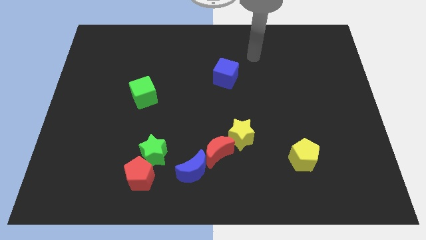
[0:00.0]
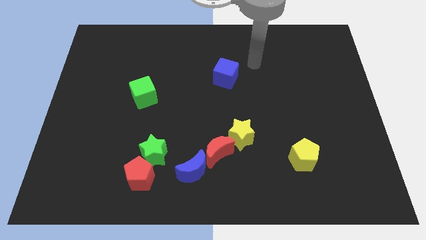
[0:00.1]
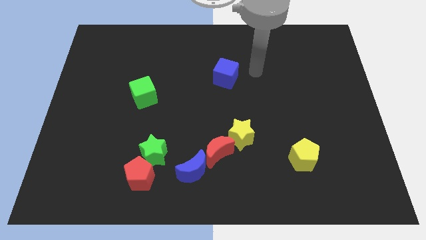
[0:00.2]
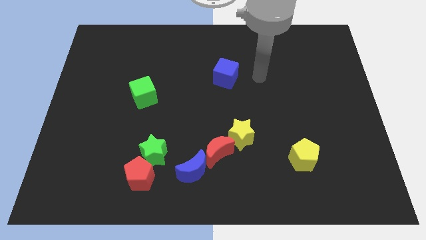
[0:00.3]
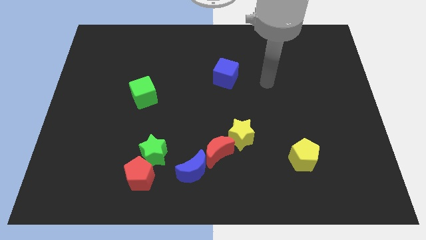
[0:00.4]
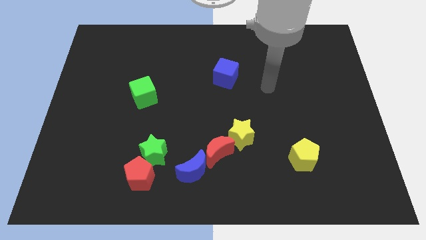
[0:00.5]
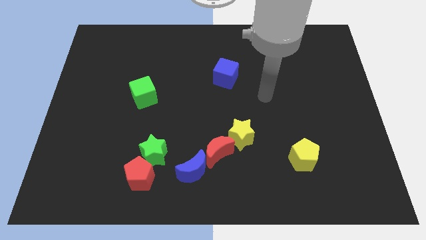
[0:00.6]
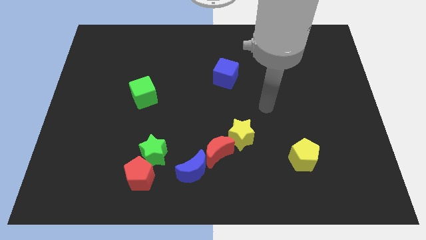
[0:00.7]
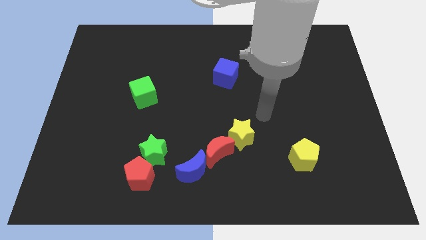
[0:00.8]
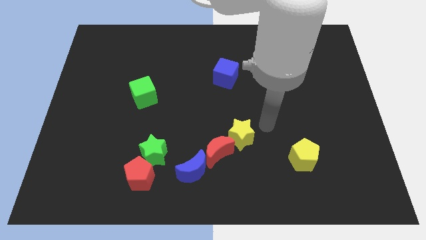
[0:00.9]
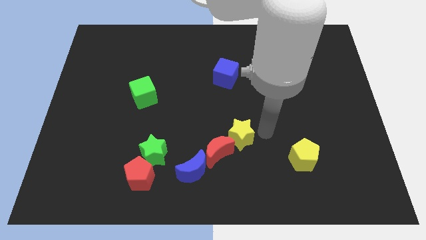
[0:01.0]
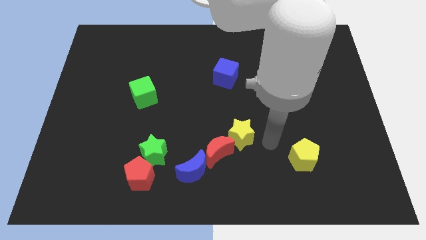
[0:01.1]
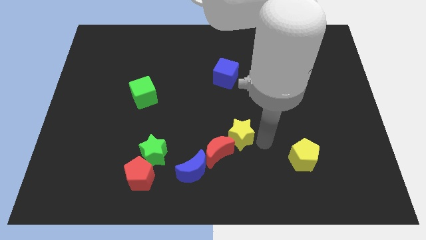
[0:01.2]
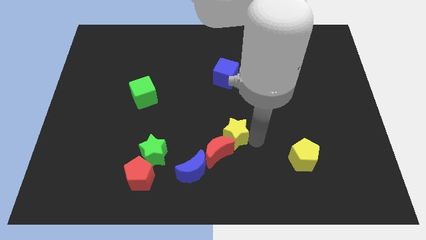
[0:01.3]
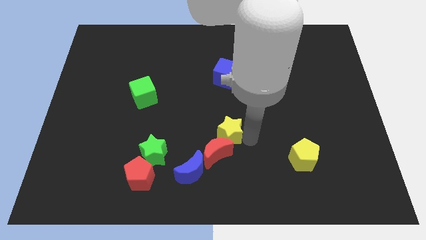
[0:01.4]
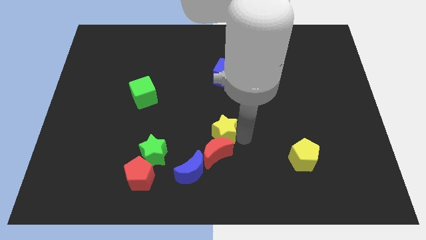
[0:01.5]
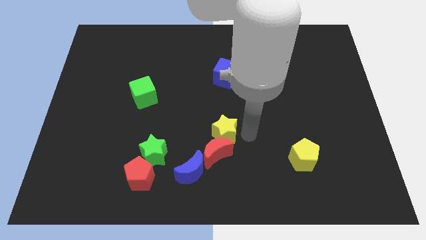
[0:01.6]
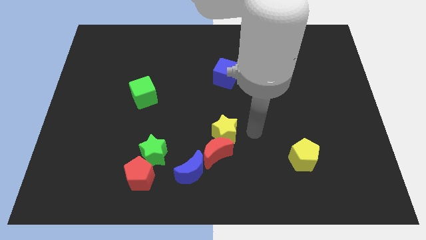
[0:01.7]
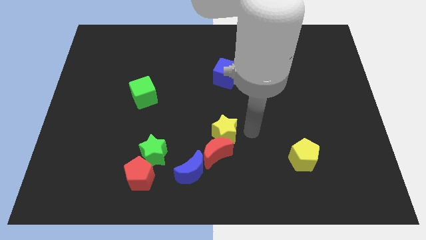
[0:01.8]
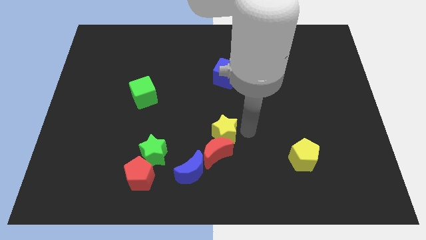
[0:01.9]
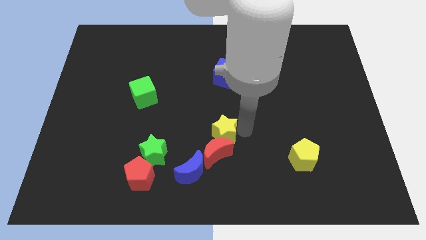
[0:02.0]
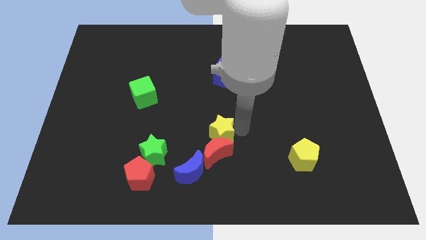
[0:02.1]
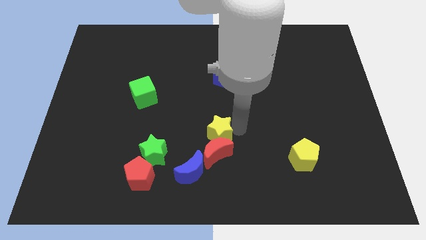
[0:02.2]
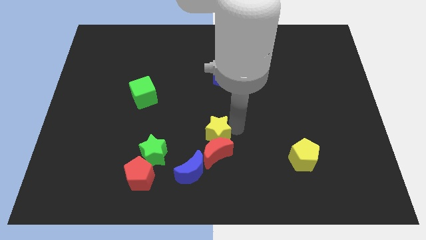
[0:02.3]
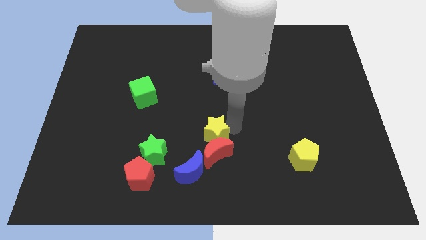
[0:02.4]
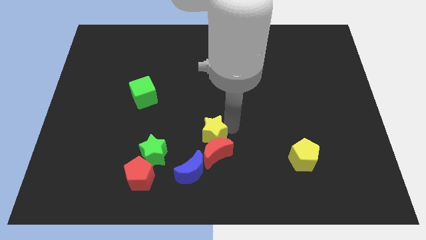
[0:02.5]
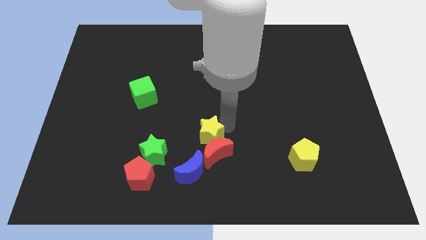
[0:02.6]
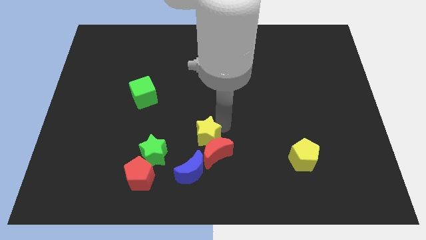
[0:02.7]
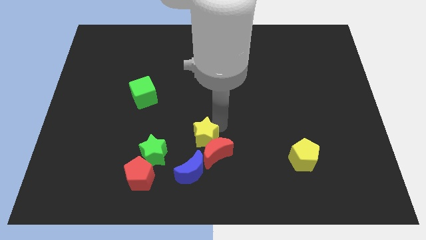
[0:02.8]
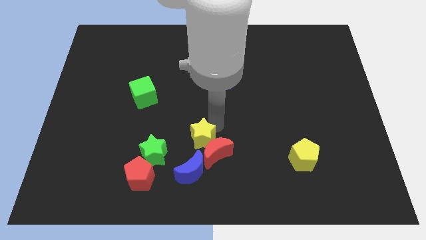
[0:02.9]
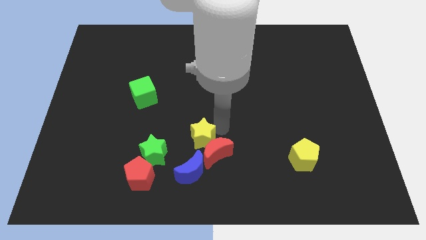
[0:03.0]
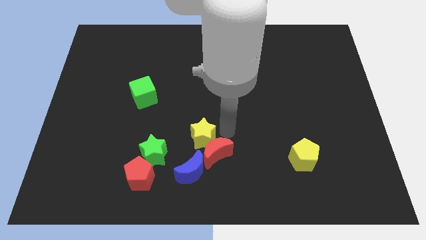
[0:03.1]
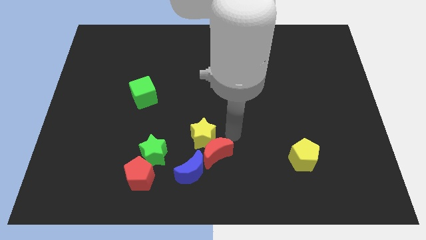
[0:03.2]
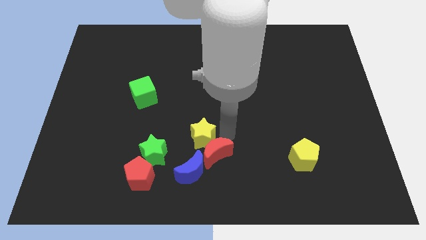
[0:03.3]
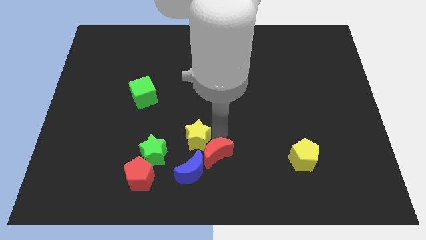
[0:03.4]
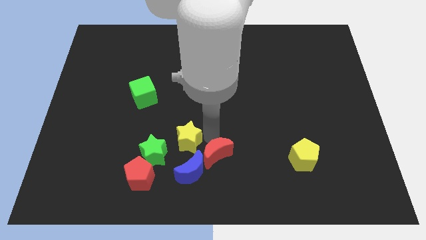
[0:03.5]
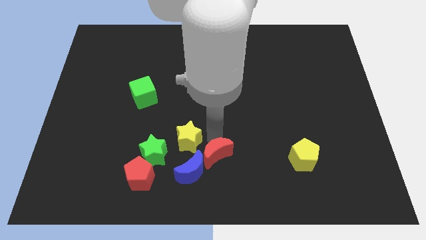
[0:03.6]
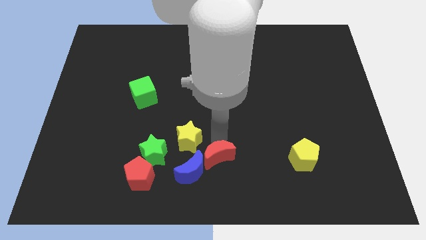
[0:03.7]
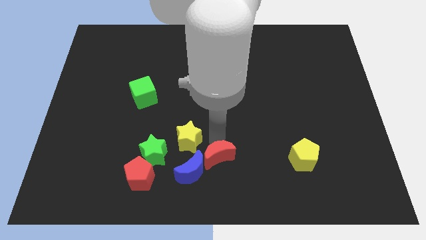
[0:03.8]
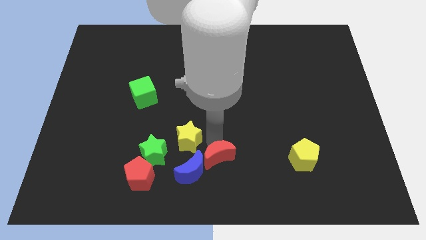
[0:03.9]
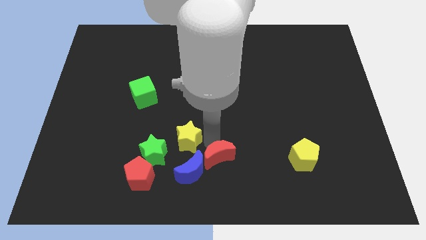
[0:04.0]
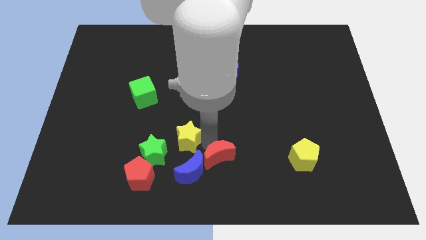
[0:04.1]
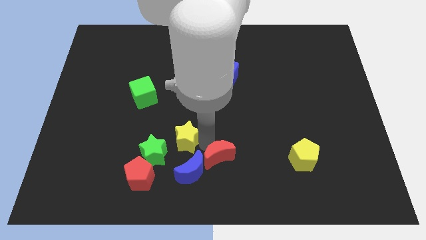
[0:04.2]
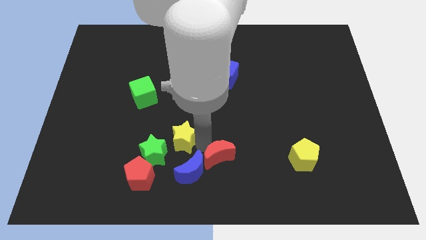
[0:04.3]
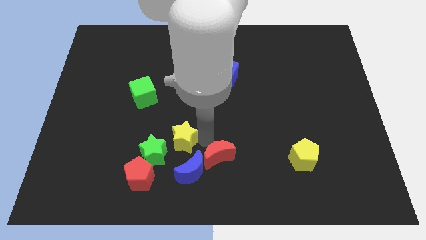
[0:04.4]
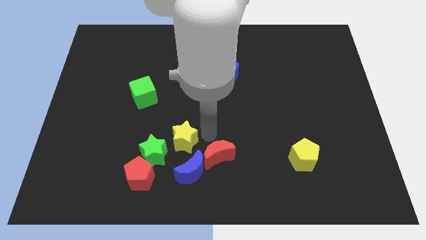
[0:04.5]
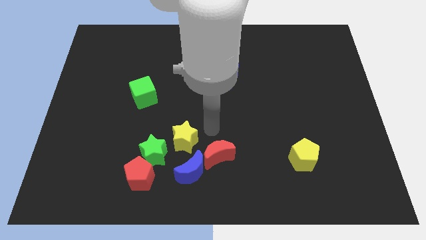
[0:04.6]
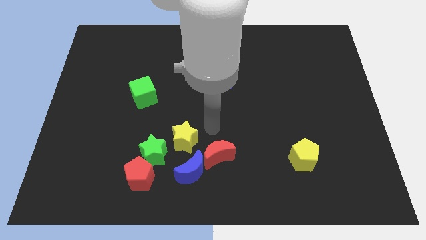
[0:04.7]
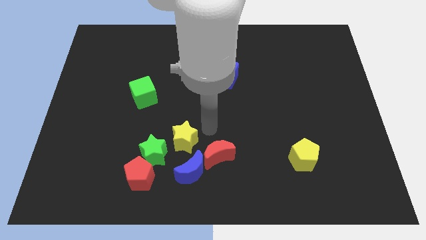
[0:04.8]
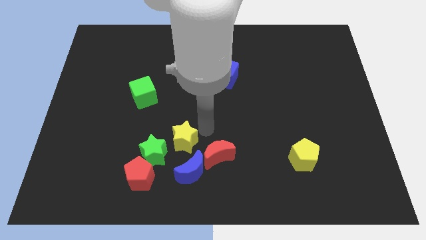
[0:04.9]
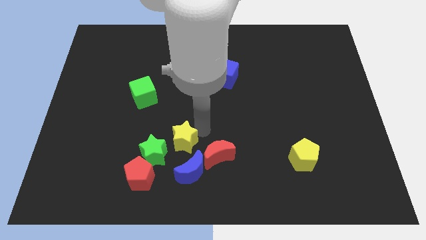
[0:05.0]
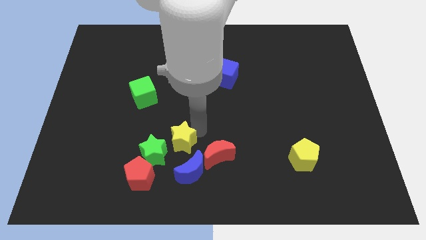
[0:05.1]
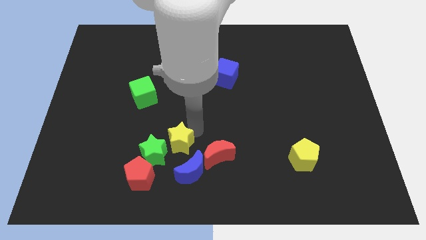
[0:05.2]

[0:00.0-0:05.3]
slide the yellow star to the green star

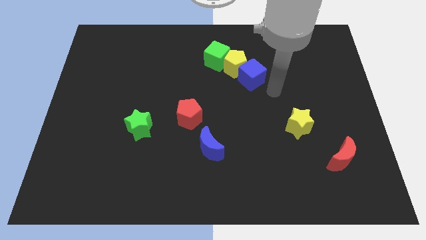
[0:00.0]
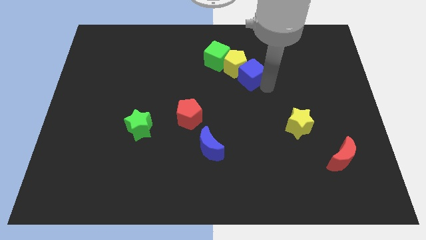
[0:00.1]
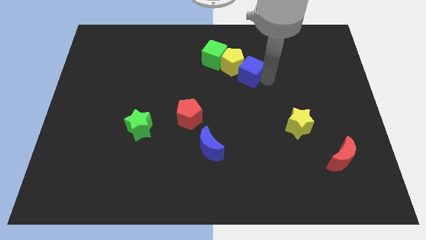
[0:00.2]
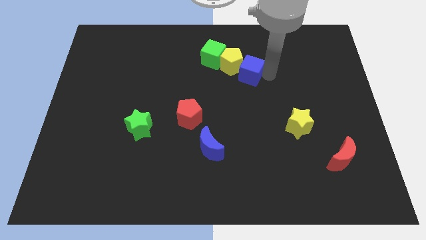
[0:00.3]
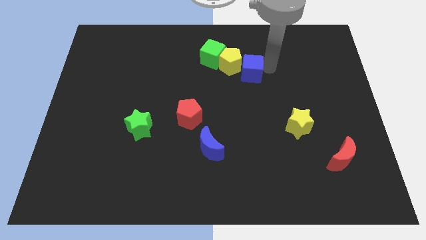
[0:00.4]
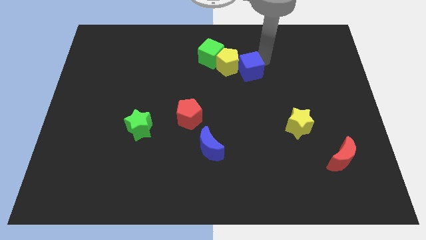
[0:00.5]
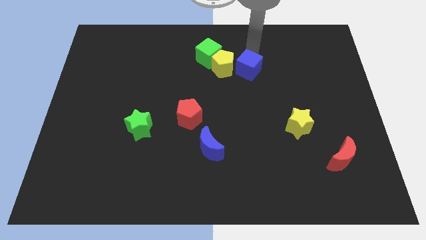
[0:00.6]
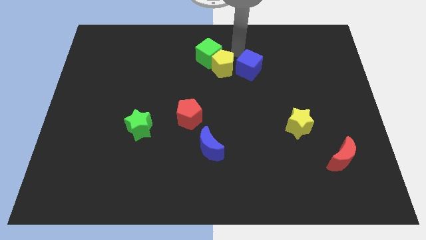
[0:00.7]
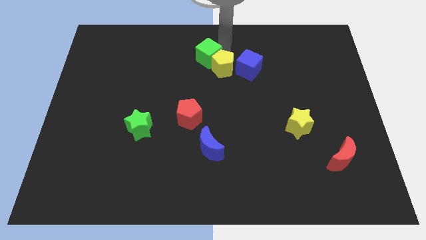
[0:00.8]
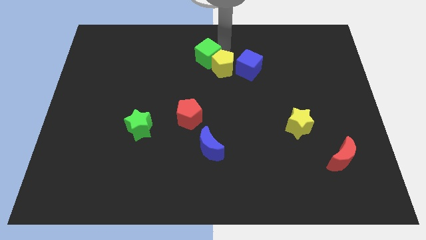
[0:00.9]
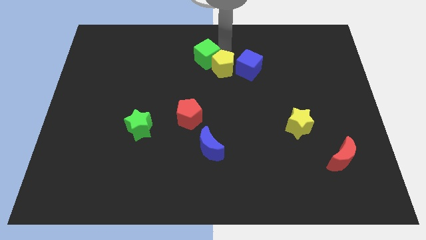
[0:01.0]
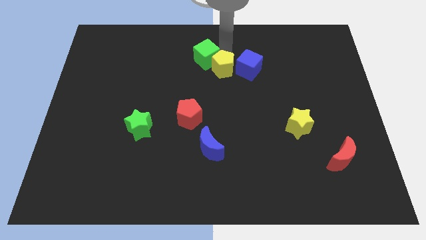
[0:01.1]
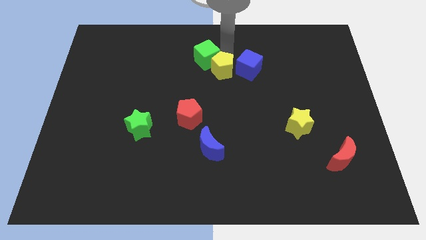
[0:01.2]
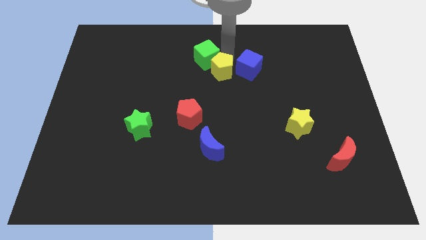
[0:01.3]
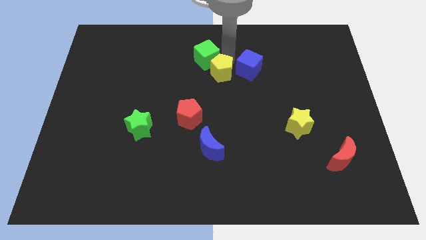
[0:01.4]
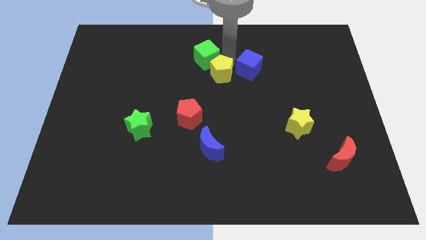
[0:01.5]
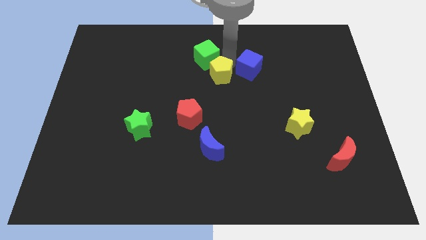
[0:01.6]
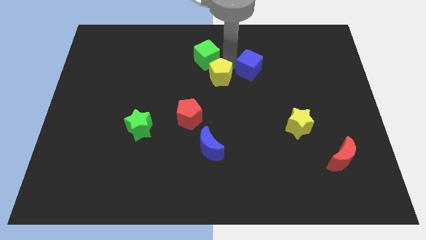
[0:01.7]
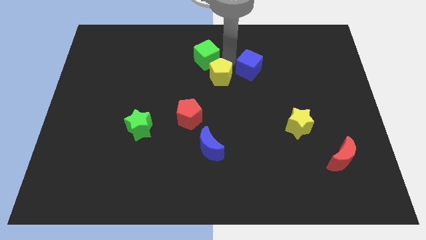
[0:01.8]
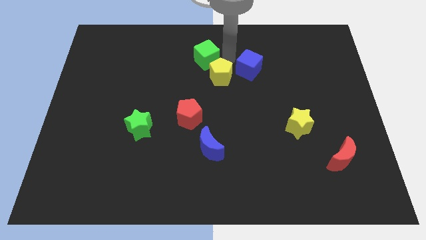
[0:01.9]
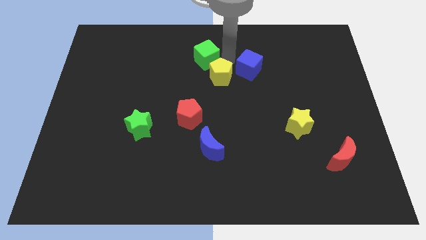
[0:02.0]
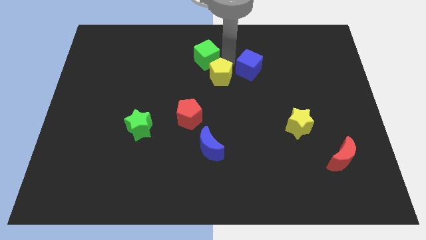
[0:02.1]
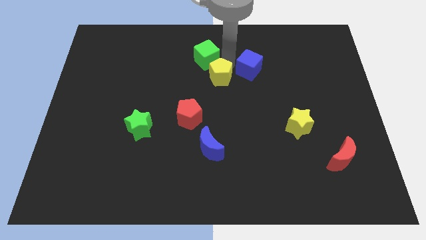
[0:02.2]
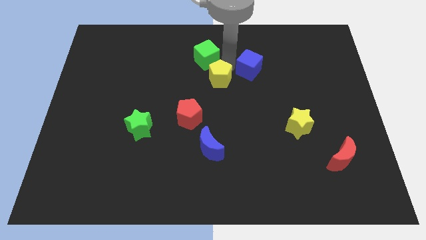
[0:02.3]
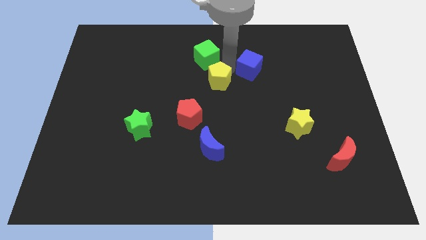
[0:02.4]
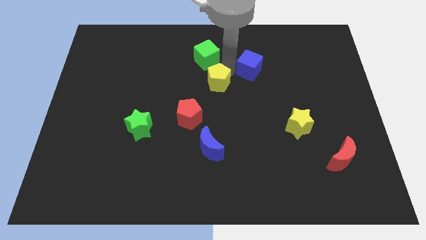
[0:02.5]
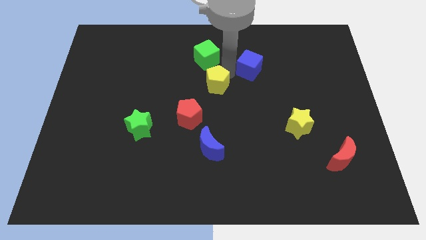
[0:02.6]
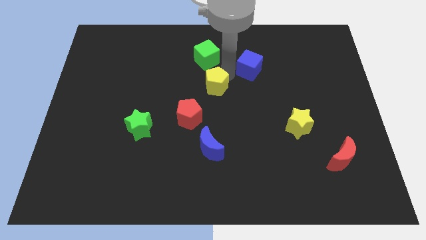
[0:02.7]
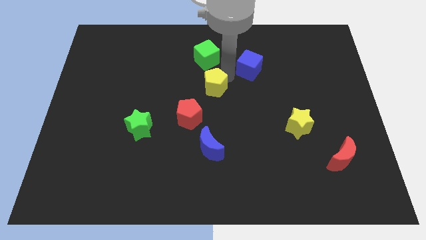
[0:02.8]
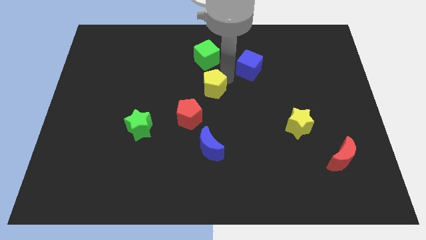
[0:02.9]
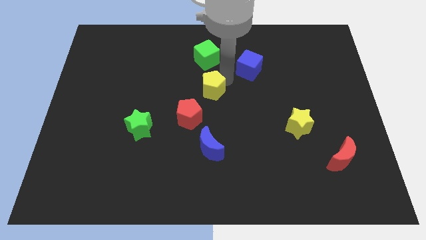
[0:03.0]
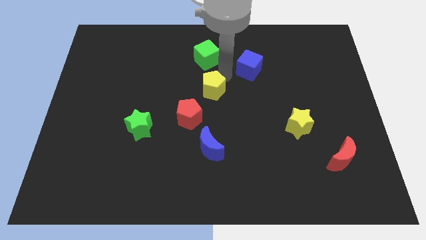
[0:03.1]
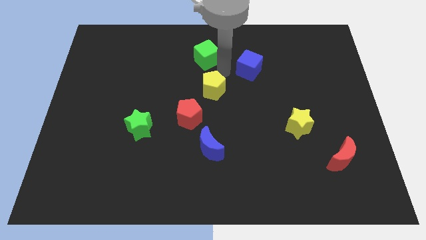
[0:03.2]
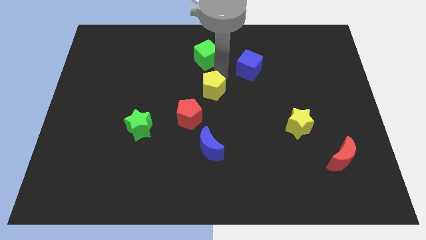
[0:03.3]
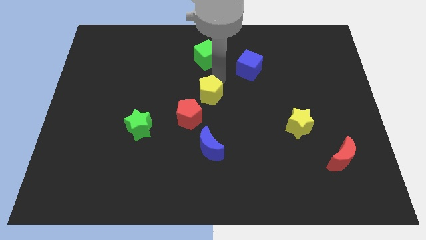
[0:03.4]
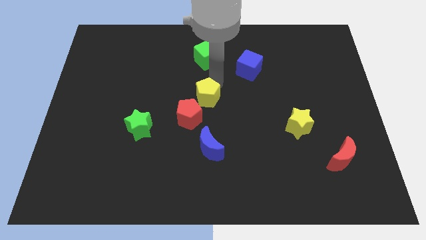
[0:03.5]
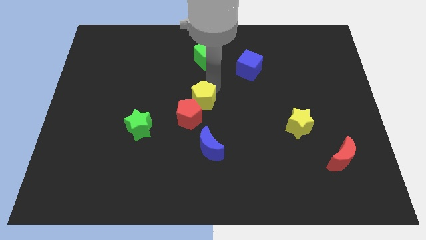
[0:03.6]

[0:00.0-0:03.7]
put the yellow pentagon towards the red pentagon
